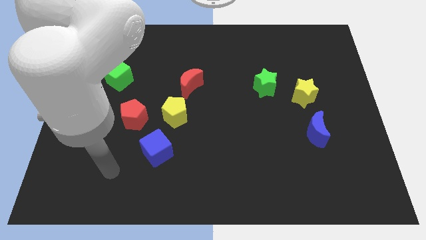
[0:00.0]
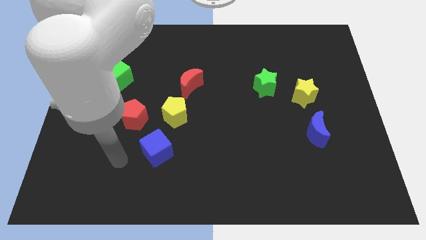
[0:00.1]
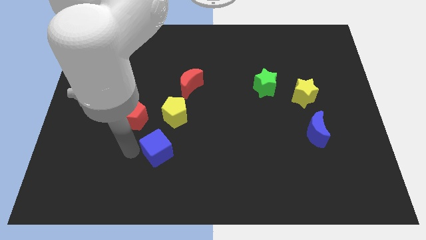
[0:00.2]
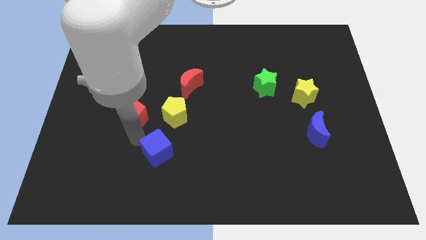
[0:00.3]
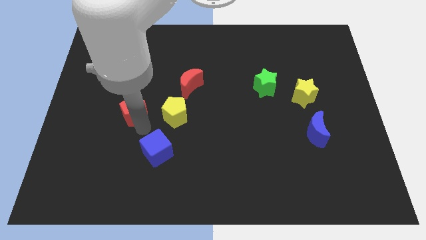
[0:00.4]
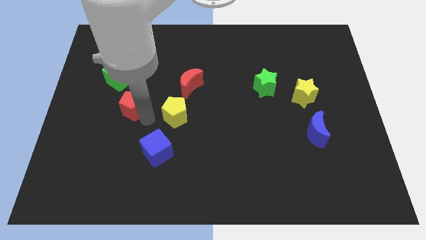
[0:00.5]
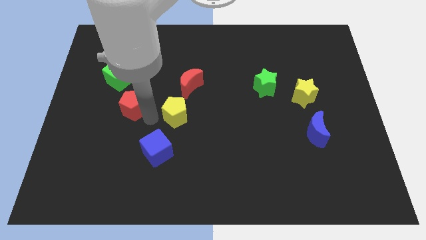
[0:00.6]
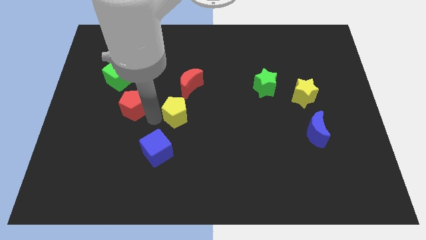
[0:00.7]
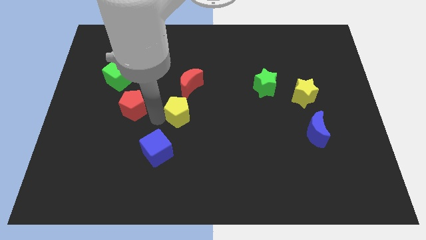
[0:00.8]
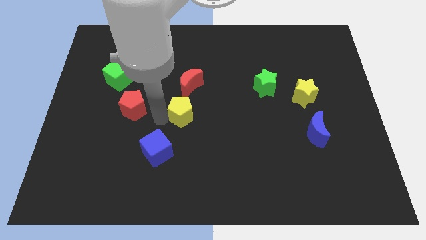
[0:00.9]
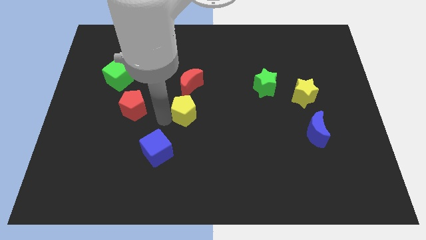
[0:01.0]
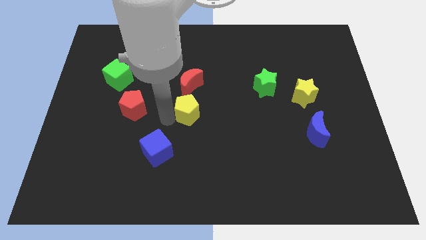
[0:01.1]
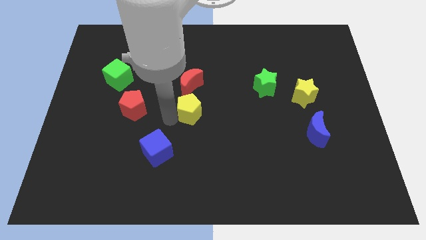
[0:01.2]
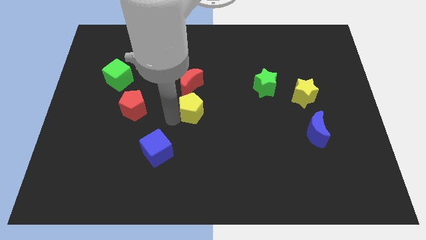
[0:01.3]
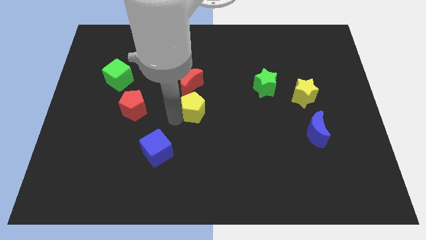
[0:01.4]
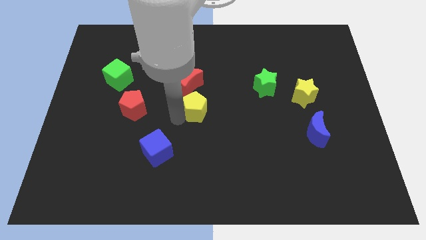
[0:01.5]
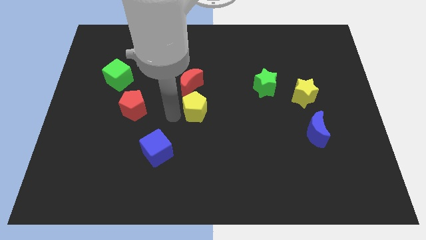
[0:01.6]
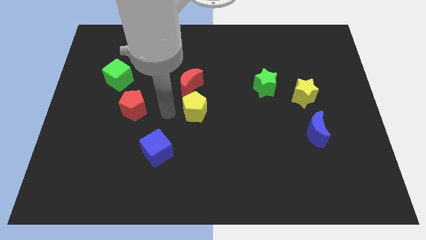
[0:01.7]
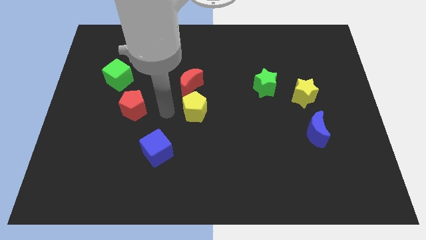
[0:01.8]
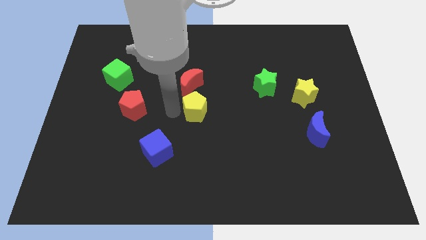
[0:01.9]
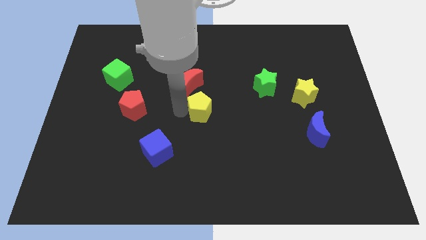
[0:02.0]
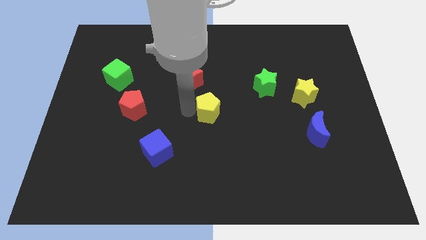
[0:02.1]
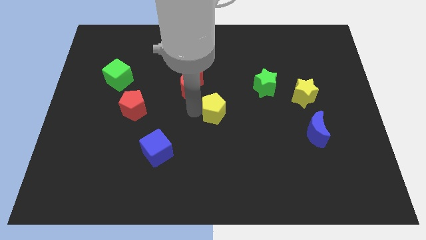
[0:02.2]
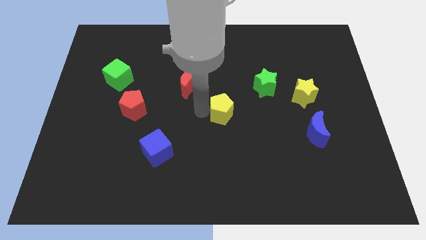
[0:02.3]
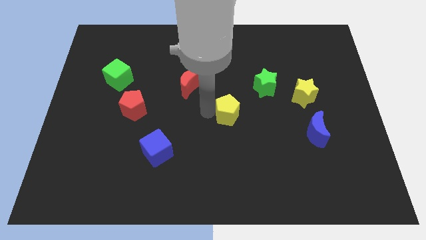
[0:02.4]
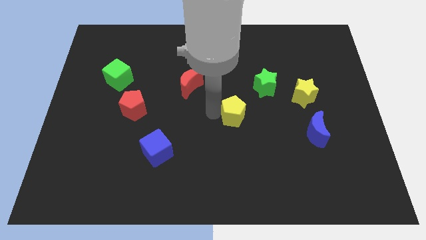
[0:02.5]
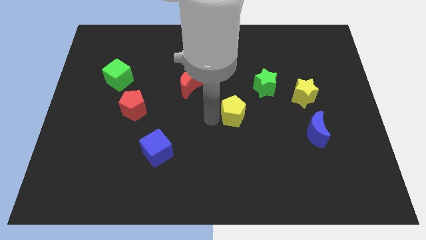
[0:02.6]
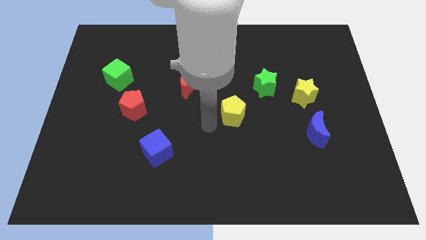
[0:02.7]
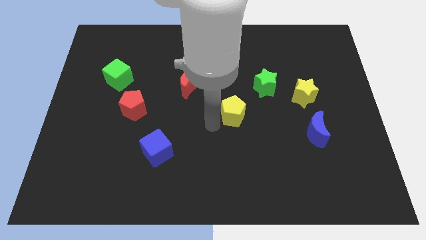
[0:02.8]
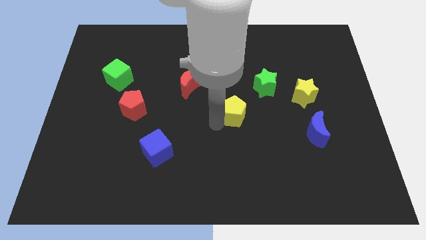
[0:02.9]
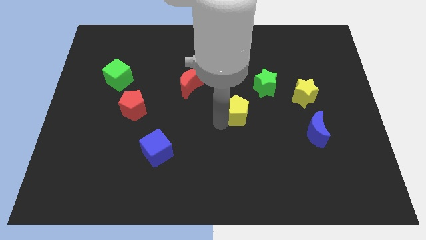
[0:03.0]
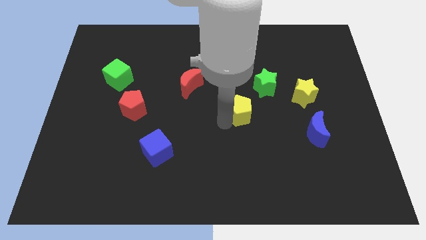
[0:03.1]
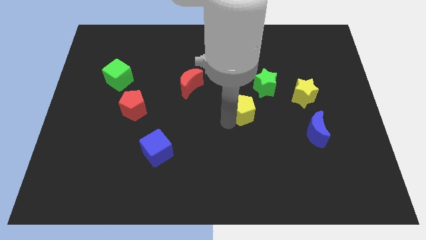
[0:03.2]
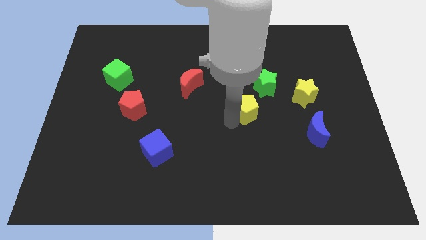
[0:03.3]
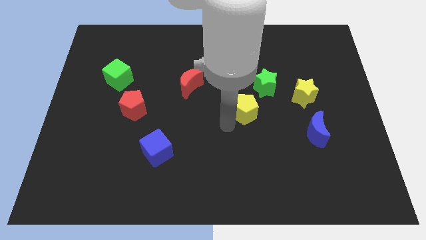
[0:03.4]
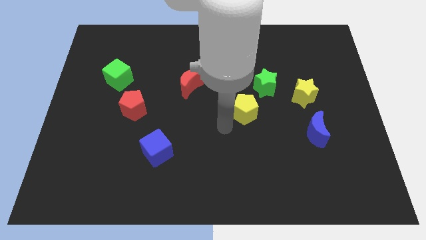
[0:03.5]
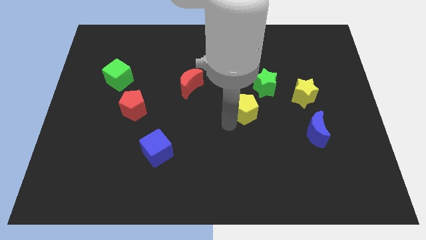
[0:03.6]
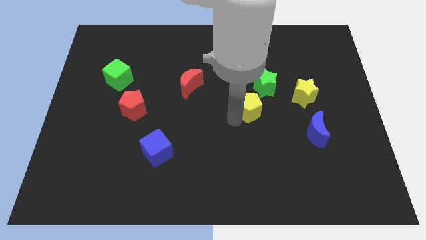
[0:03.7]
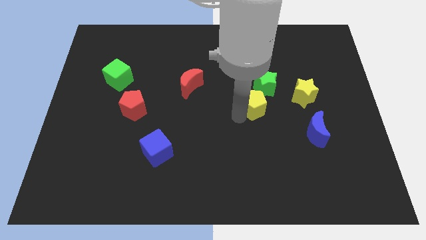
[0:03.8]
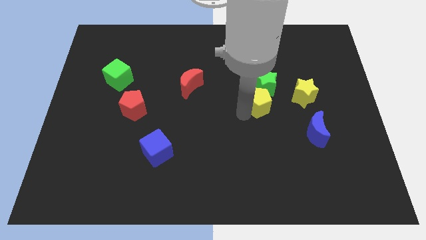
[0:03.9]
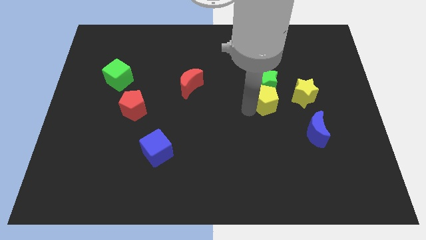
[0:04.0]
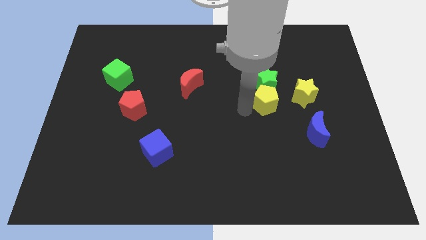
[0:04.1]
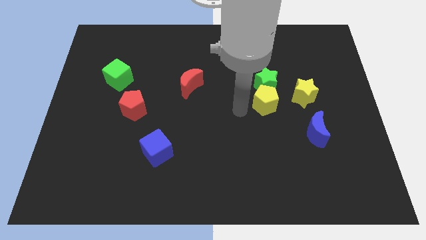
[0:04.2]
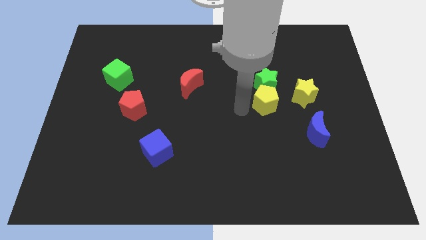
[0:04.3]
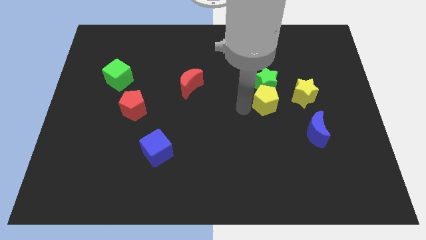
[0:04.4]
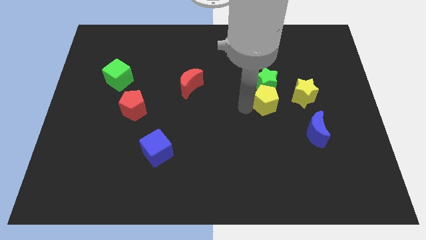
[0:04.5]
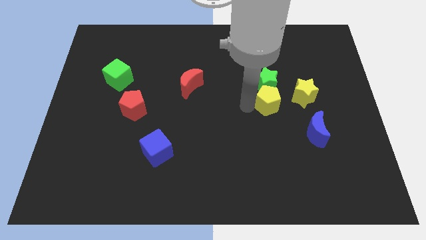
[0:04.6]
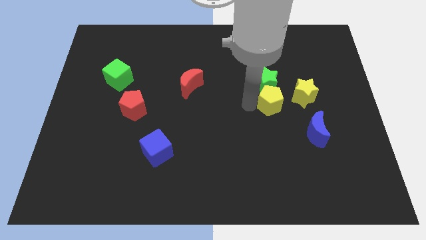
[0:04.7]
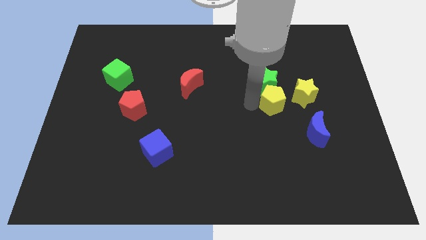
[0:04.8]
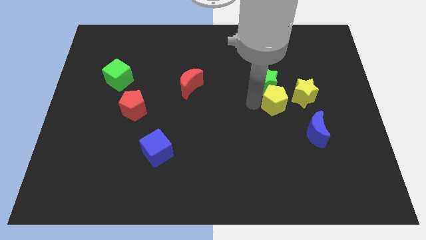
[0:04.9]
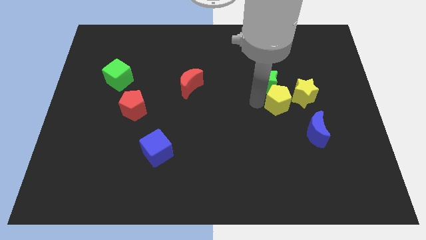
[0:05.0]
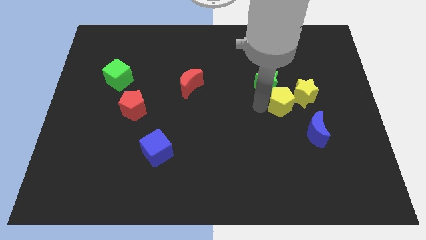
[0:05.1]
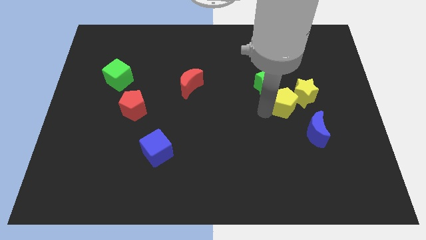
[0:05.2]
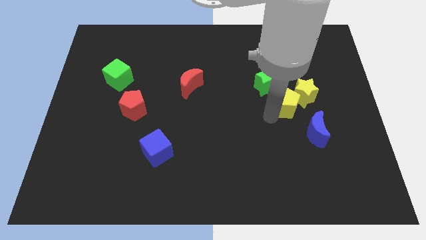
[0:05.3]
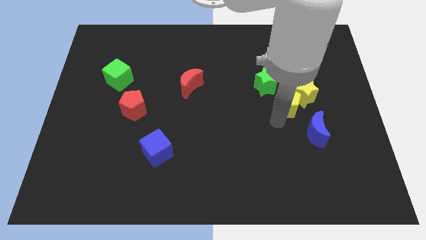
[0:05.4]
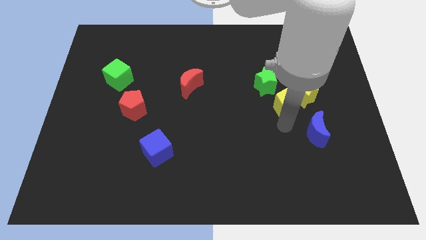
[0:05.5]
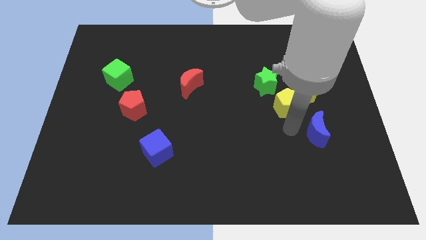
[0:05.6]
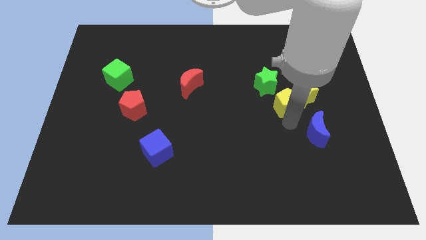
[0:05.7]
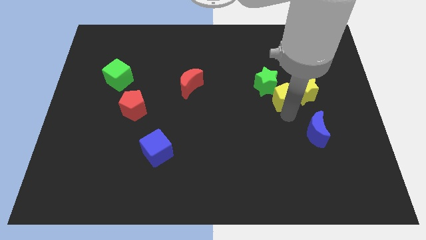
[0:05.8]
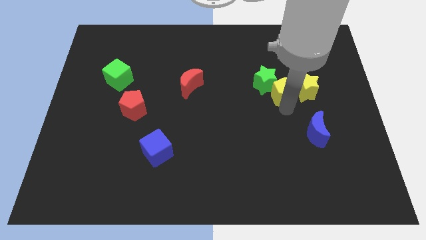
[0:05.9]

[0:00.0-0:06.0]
move the yellow pentagon to the top left side of the yellow star

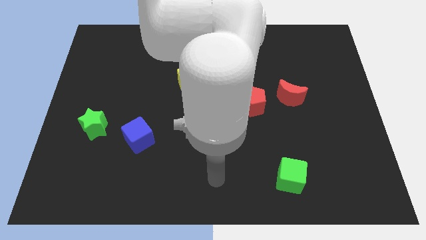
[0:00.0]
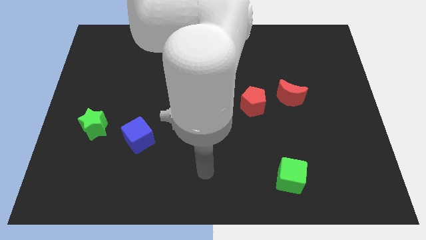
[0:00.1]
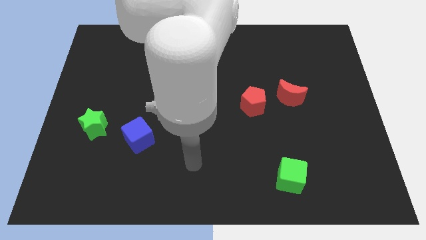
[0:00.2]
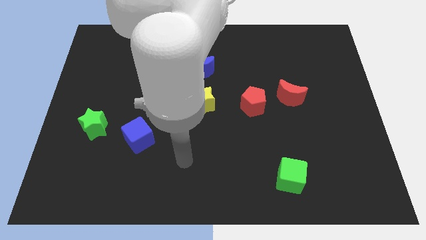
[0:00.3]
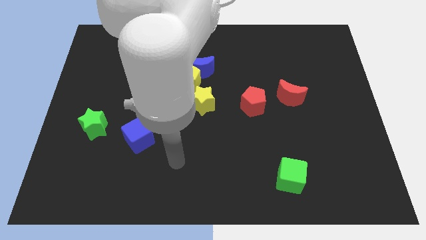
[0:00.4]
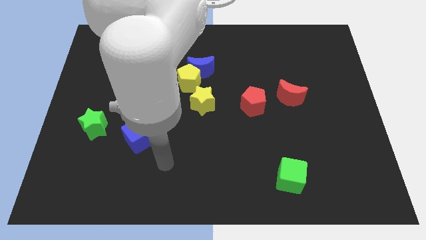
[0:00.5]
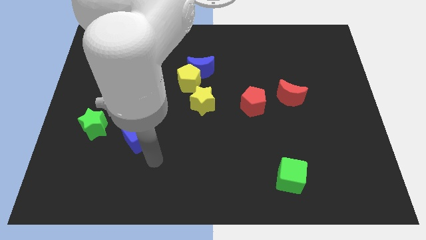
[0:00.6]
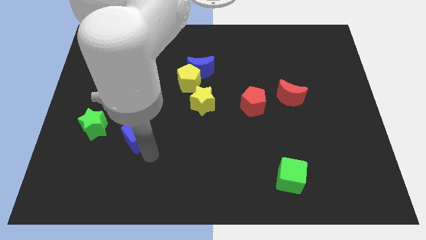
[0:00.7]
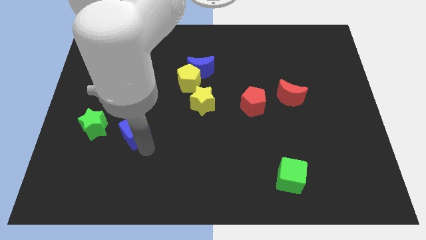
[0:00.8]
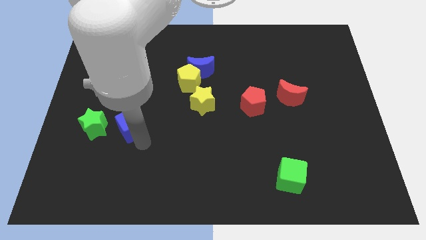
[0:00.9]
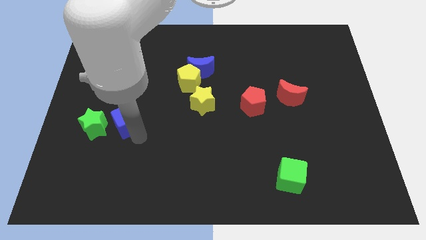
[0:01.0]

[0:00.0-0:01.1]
slide the blue cube to the top right of the green star

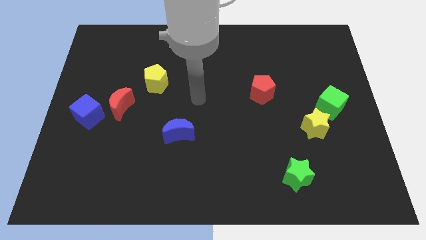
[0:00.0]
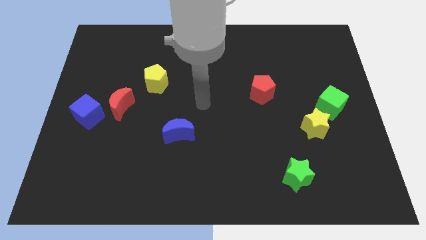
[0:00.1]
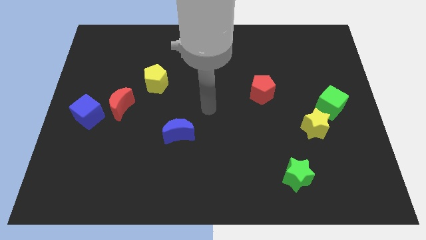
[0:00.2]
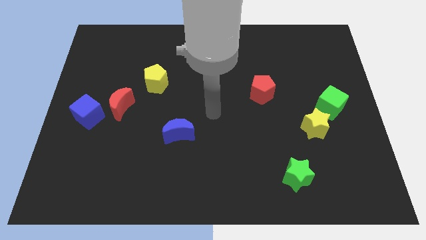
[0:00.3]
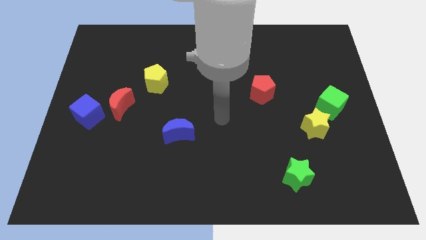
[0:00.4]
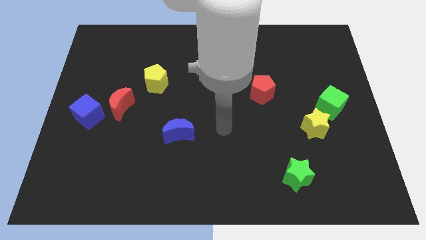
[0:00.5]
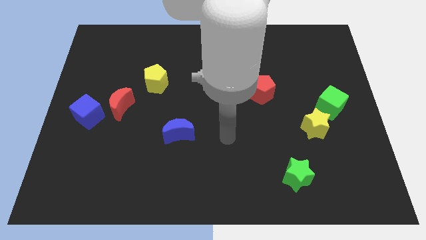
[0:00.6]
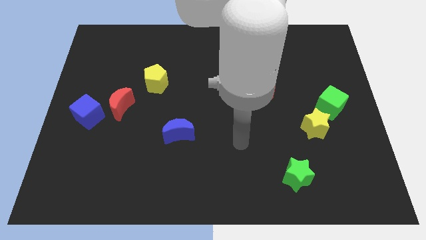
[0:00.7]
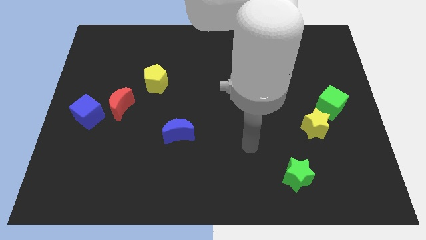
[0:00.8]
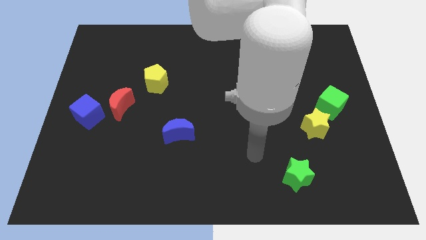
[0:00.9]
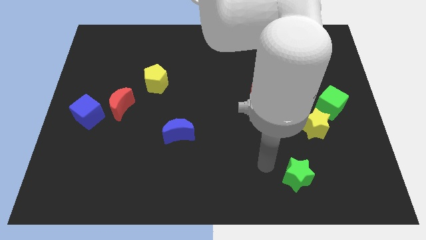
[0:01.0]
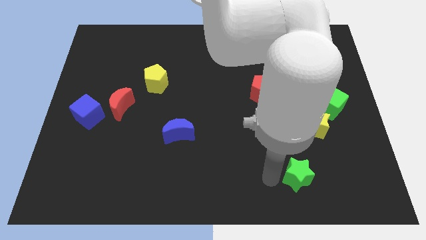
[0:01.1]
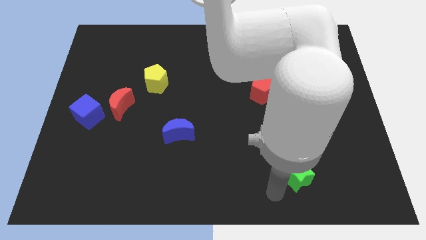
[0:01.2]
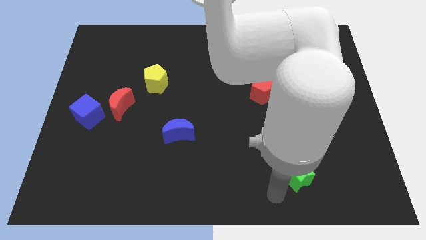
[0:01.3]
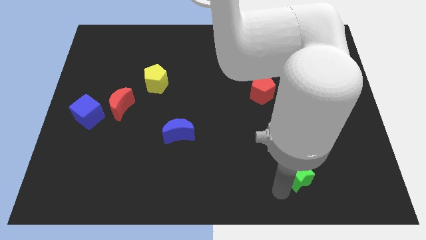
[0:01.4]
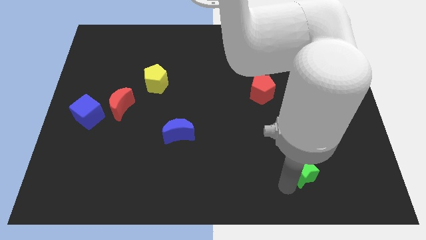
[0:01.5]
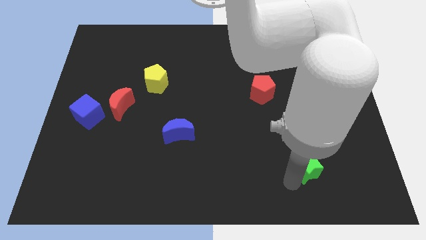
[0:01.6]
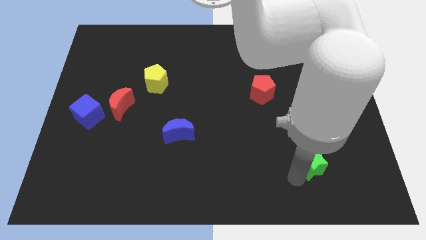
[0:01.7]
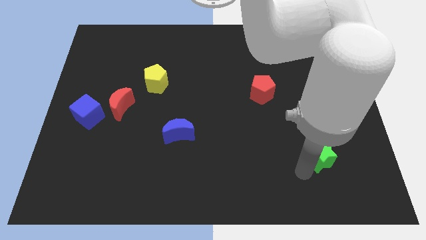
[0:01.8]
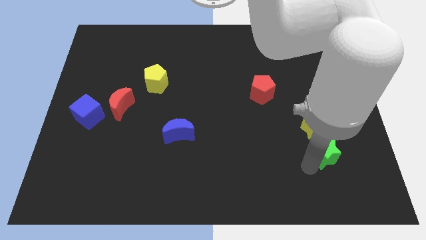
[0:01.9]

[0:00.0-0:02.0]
move the green star below the green cube
